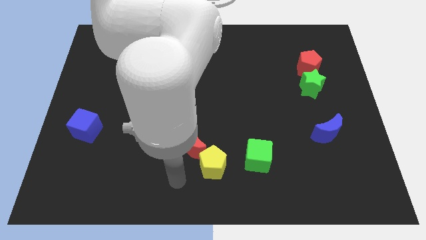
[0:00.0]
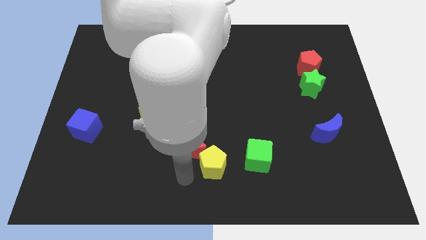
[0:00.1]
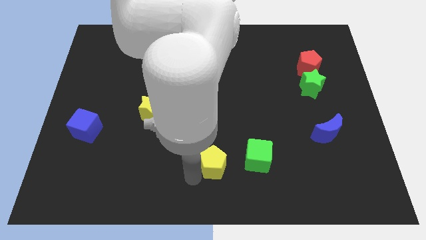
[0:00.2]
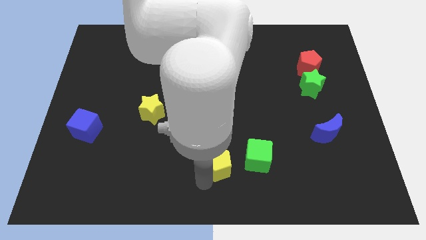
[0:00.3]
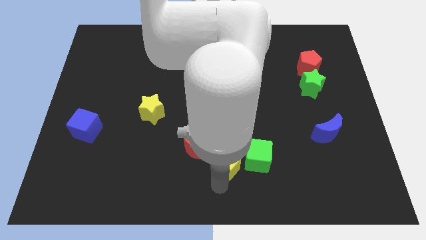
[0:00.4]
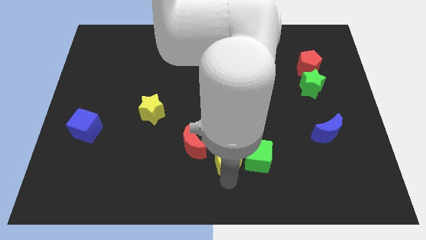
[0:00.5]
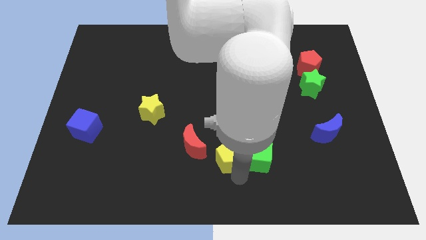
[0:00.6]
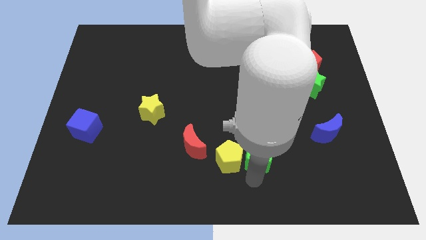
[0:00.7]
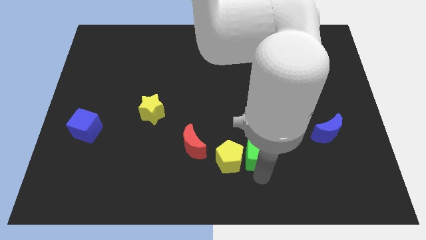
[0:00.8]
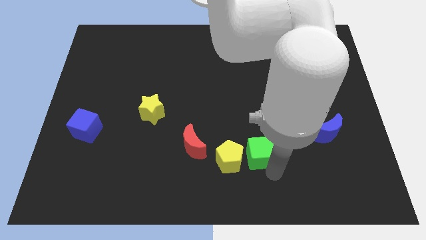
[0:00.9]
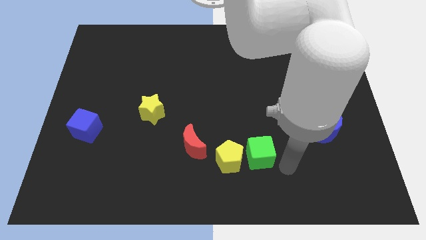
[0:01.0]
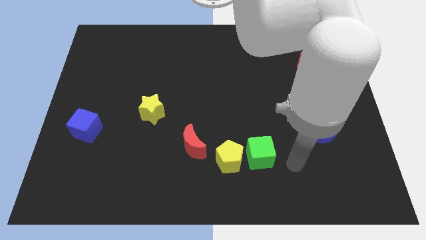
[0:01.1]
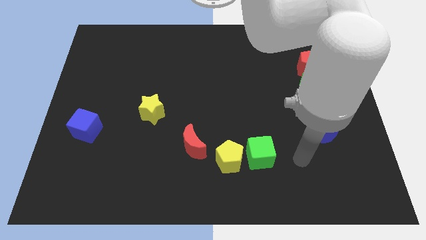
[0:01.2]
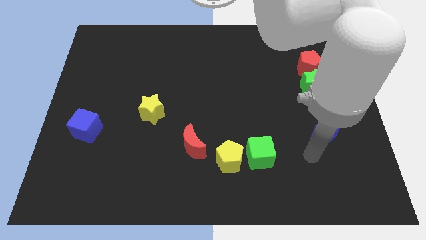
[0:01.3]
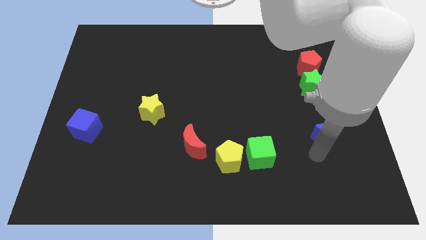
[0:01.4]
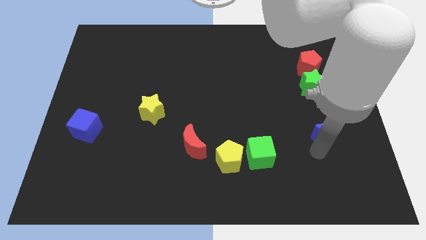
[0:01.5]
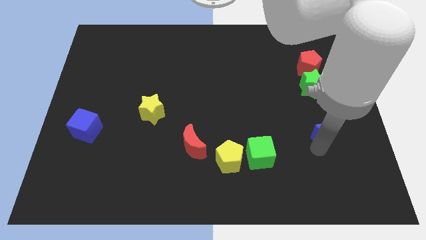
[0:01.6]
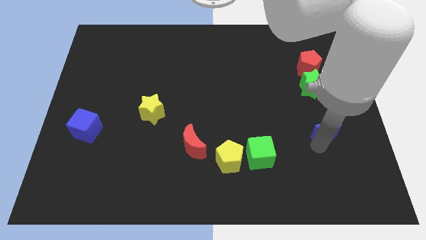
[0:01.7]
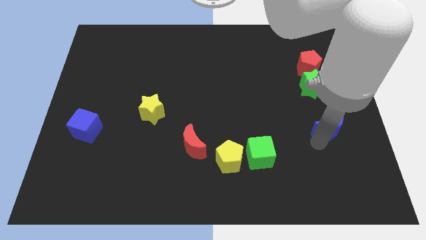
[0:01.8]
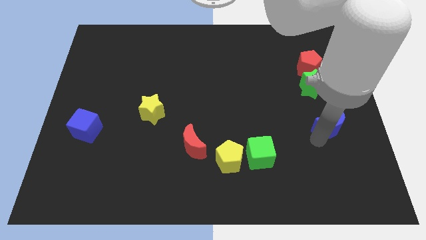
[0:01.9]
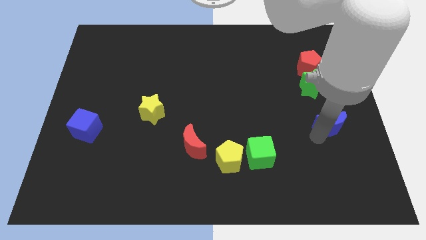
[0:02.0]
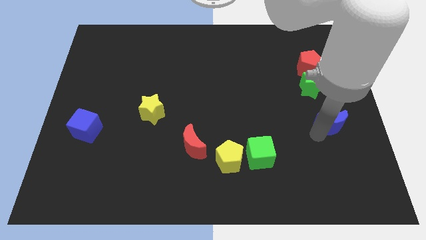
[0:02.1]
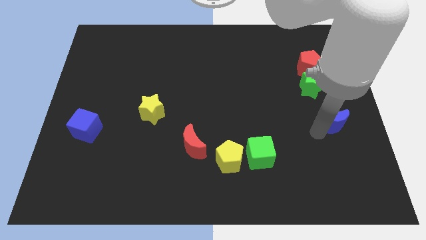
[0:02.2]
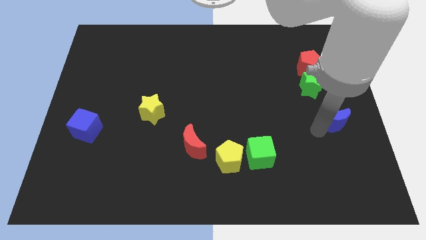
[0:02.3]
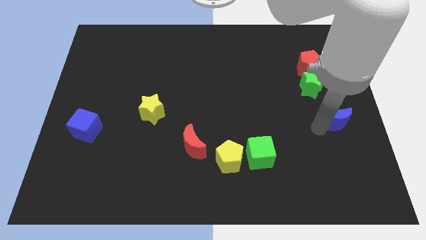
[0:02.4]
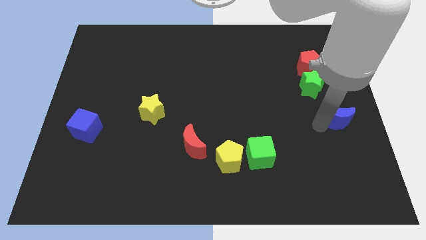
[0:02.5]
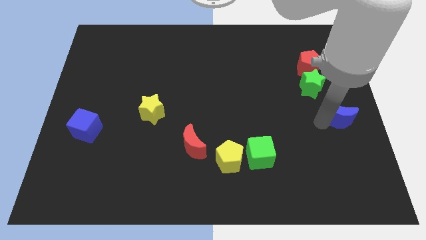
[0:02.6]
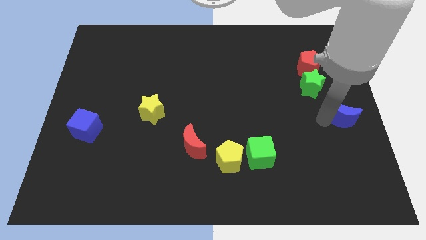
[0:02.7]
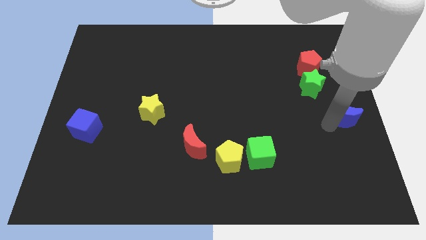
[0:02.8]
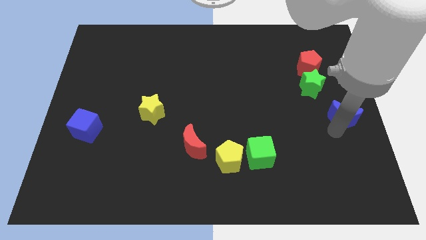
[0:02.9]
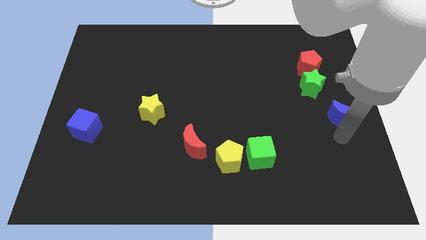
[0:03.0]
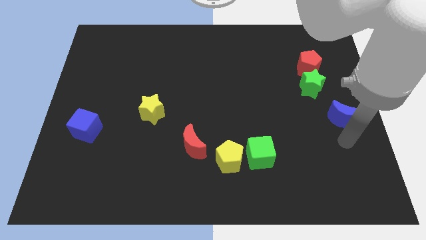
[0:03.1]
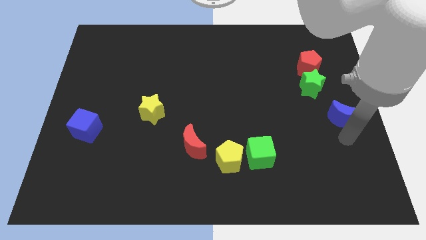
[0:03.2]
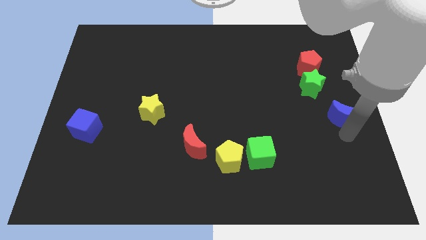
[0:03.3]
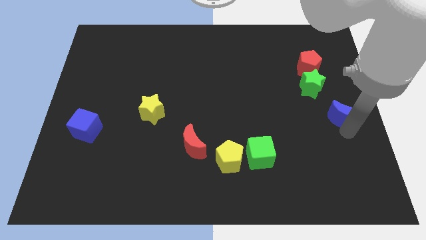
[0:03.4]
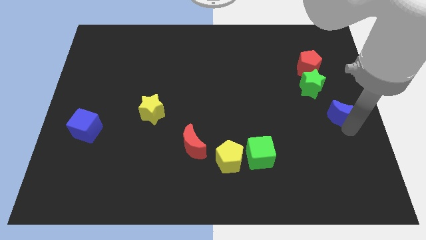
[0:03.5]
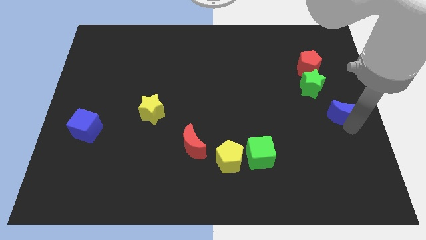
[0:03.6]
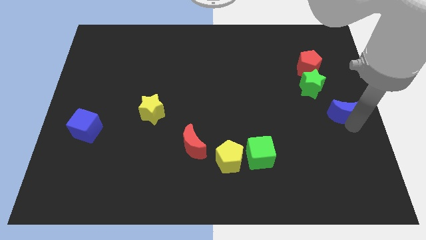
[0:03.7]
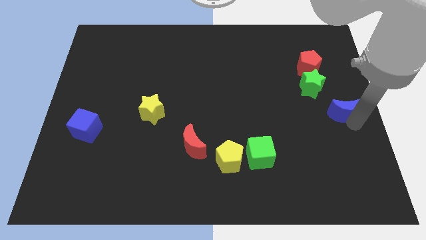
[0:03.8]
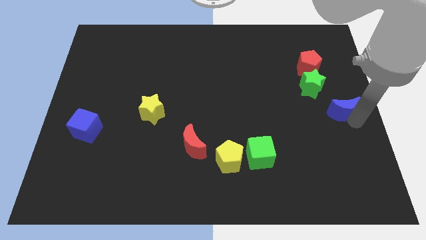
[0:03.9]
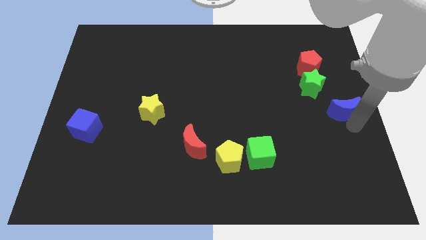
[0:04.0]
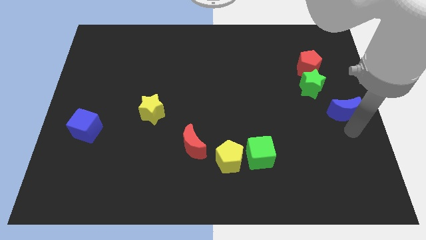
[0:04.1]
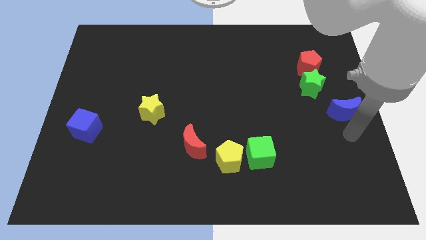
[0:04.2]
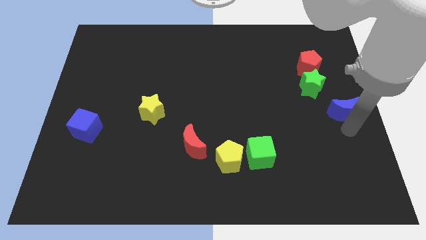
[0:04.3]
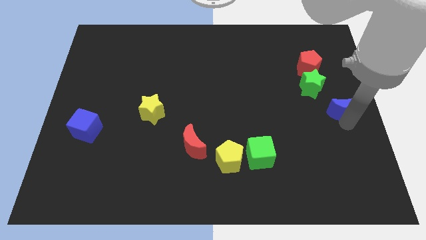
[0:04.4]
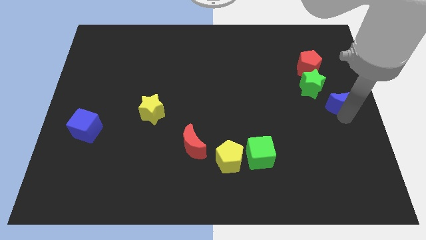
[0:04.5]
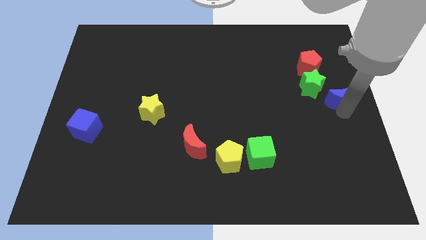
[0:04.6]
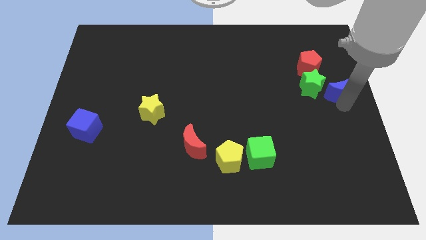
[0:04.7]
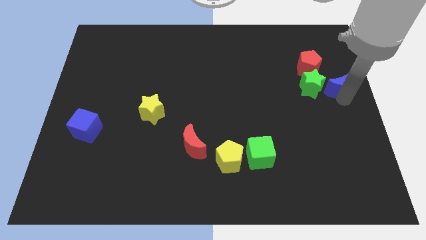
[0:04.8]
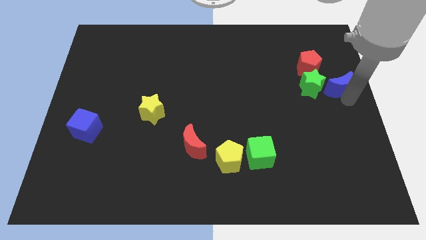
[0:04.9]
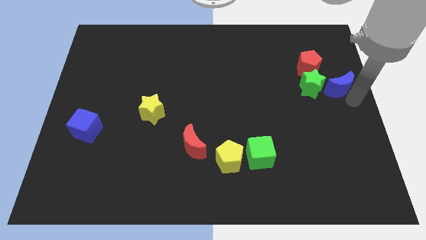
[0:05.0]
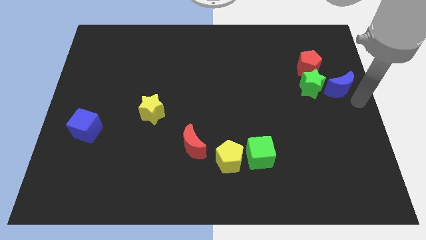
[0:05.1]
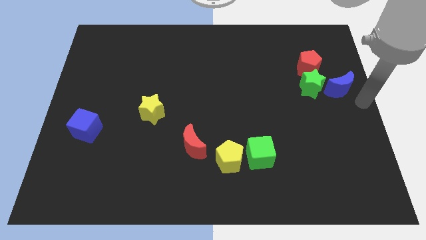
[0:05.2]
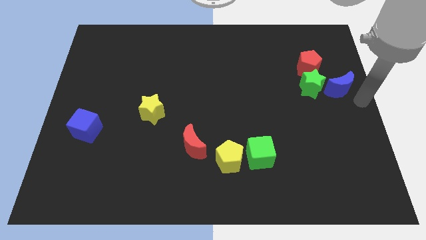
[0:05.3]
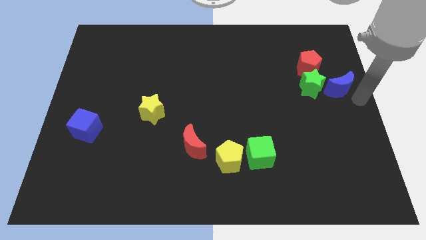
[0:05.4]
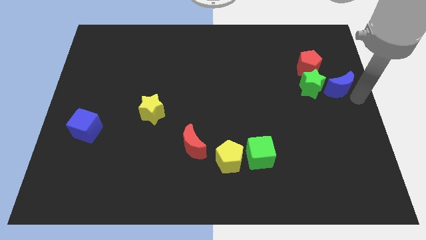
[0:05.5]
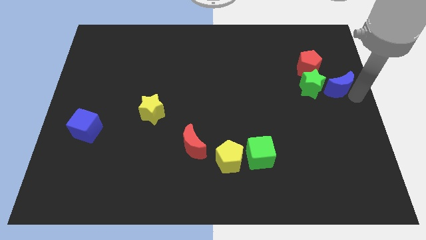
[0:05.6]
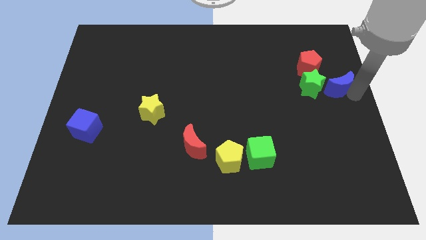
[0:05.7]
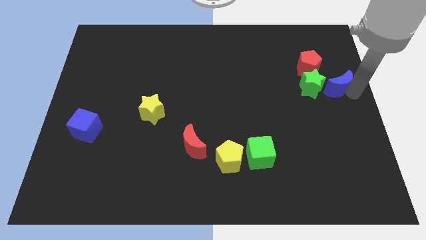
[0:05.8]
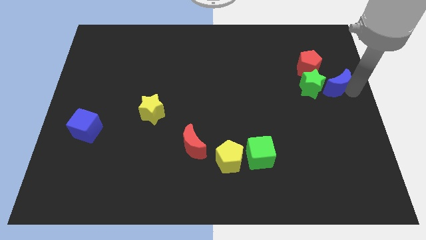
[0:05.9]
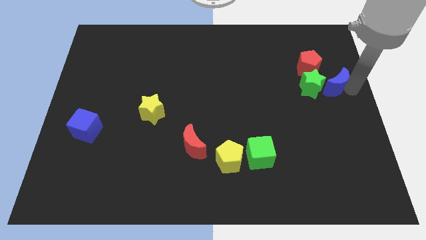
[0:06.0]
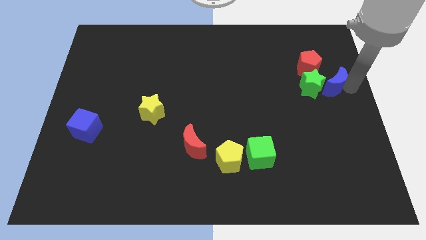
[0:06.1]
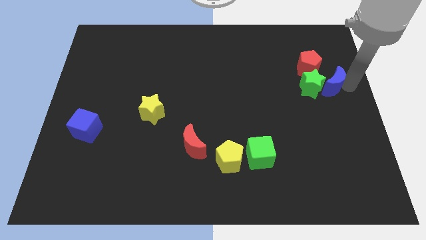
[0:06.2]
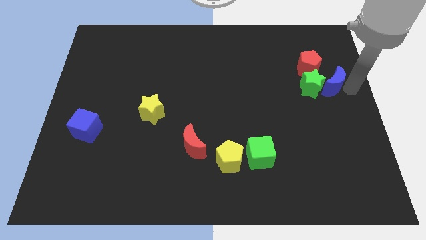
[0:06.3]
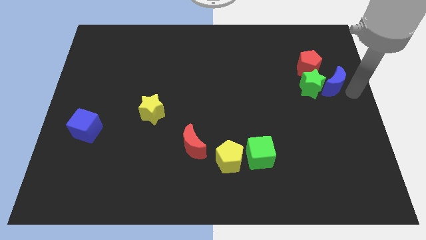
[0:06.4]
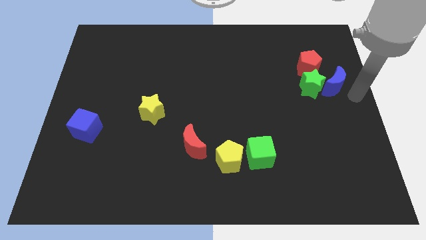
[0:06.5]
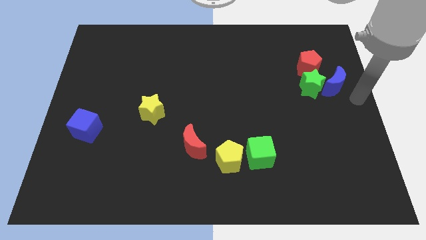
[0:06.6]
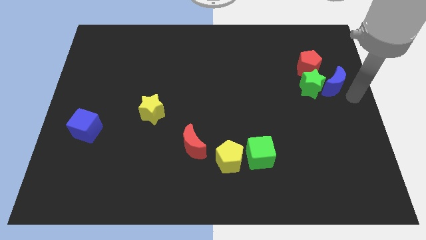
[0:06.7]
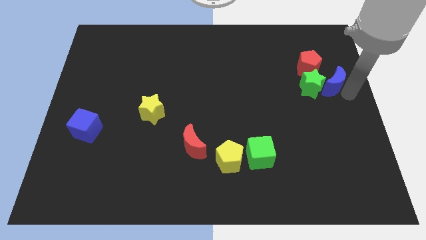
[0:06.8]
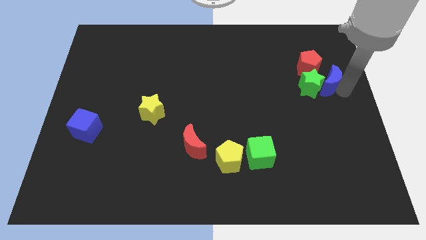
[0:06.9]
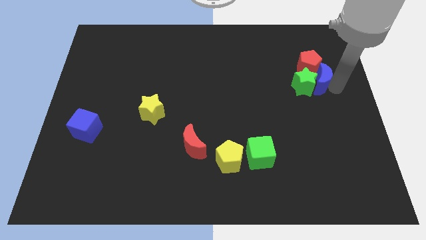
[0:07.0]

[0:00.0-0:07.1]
slide the blue moon close to the red pentagon

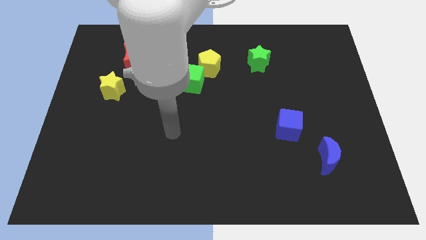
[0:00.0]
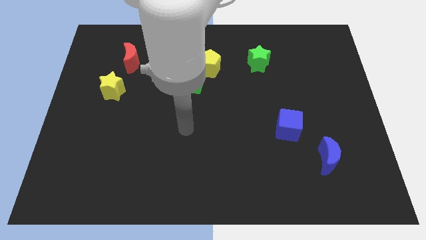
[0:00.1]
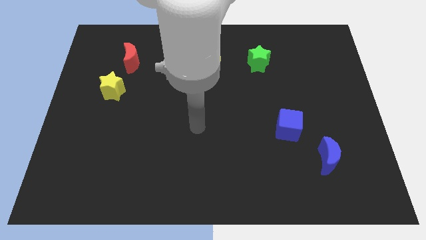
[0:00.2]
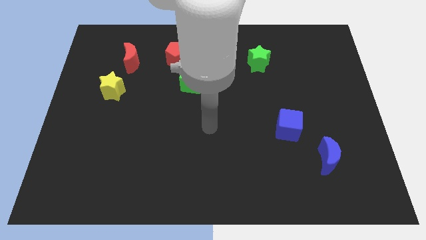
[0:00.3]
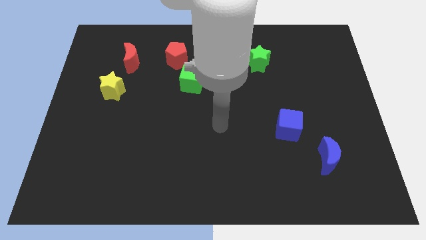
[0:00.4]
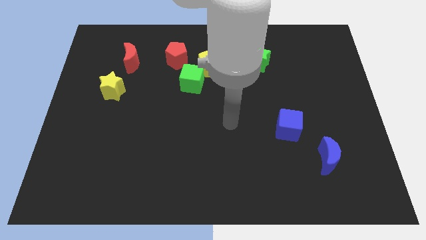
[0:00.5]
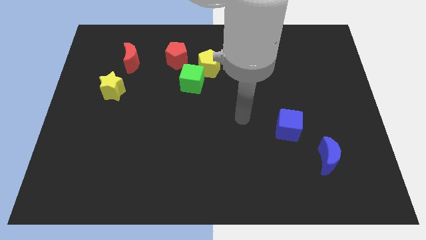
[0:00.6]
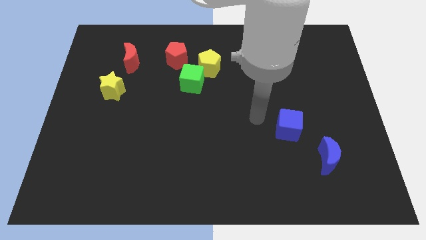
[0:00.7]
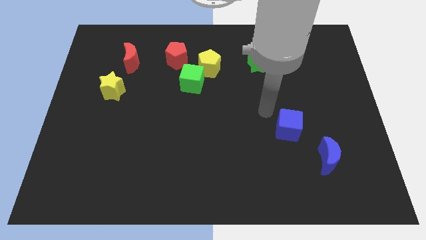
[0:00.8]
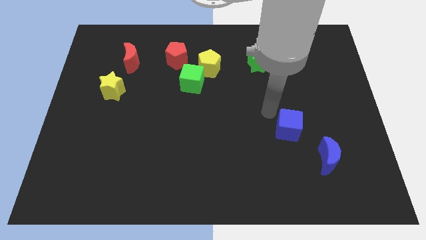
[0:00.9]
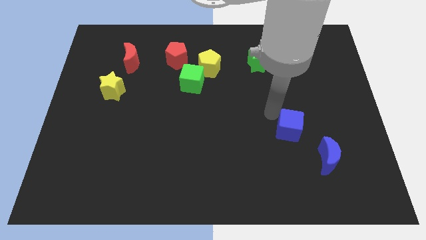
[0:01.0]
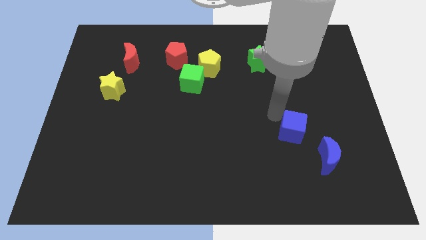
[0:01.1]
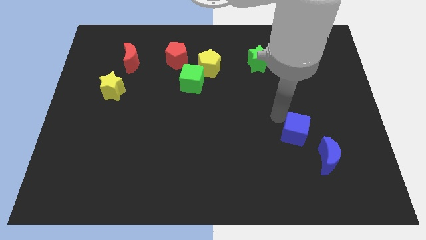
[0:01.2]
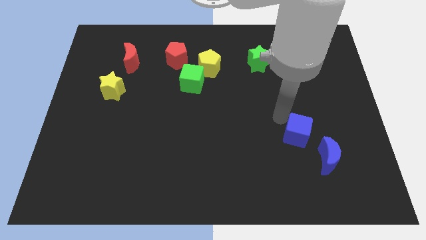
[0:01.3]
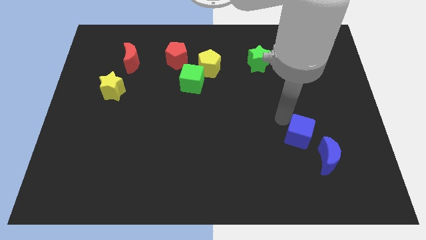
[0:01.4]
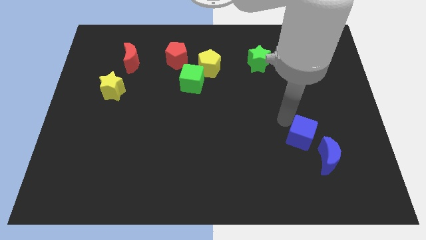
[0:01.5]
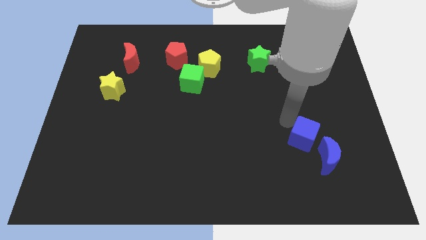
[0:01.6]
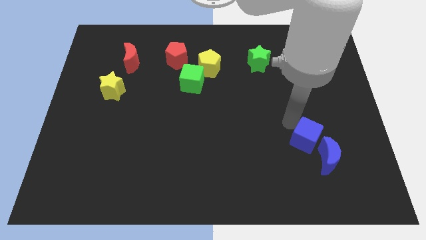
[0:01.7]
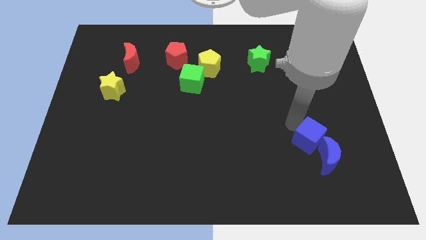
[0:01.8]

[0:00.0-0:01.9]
slide the blue cube towards the blue moon
